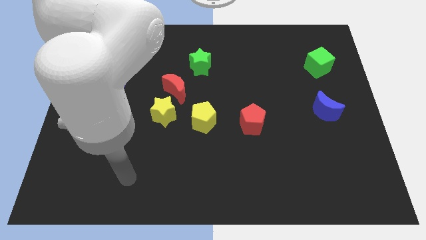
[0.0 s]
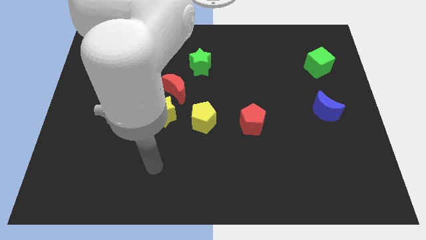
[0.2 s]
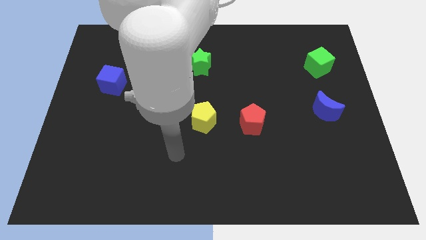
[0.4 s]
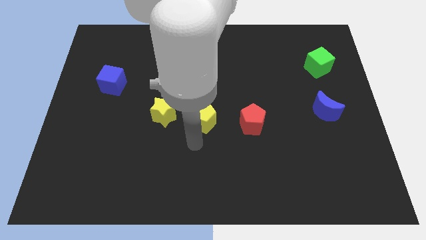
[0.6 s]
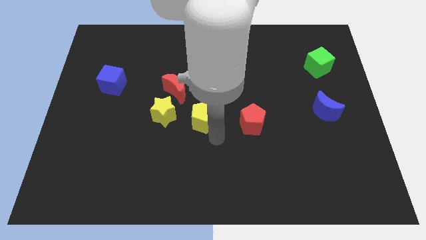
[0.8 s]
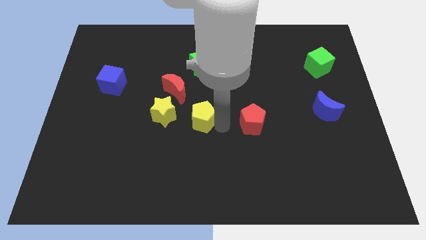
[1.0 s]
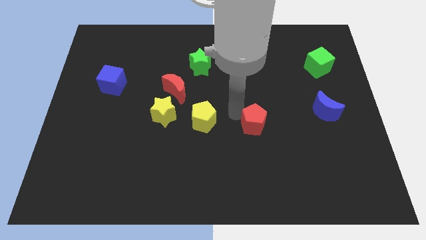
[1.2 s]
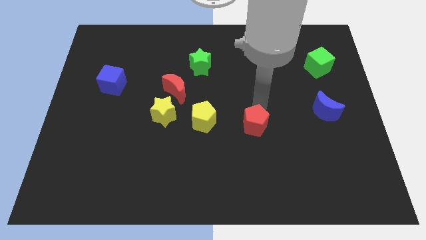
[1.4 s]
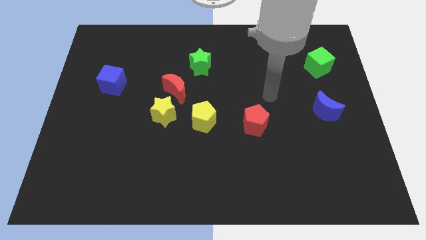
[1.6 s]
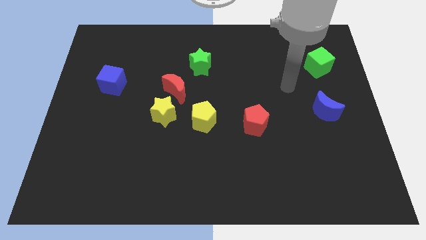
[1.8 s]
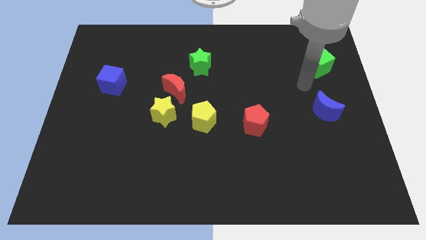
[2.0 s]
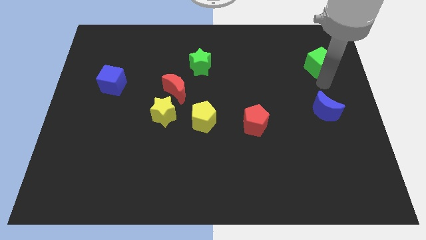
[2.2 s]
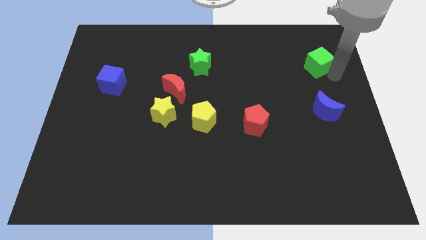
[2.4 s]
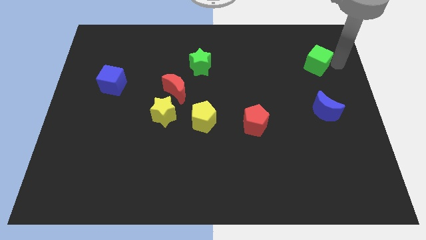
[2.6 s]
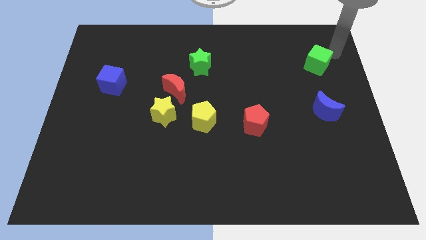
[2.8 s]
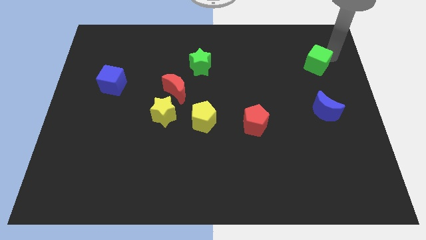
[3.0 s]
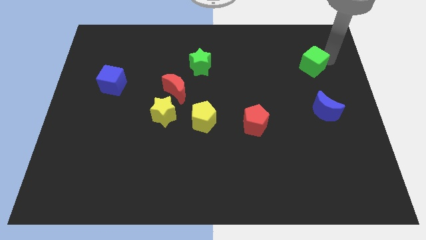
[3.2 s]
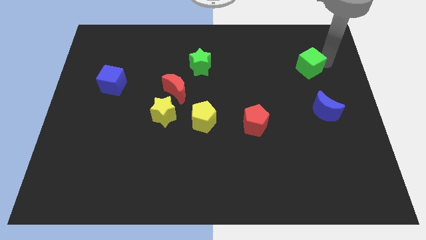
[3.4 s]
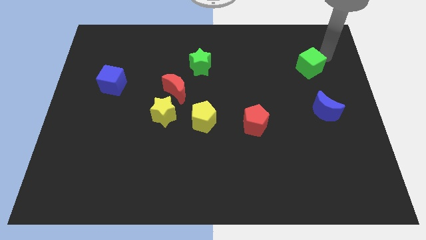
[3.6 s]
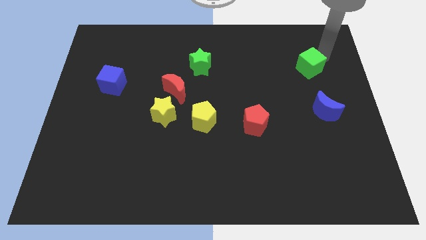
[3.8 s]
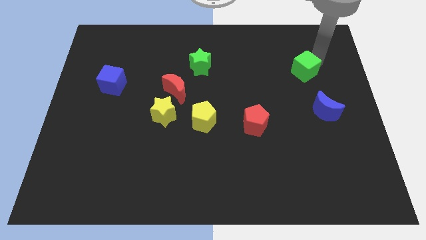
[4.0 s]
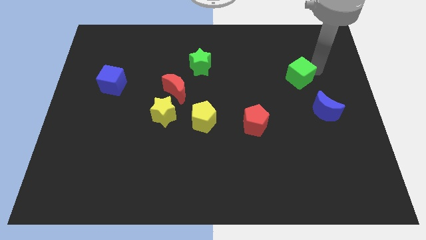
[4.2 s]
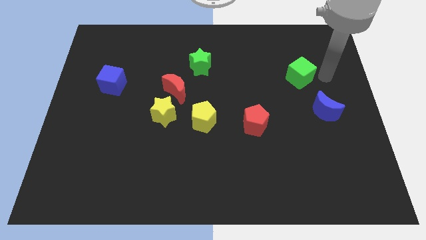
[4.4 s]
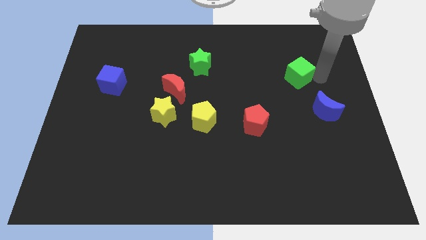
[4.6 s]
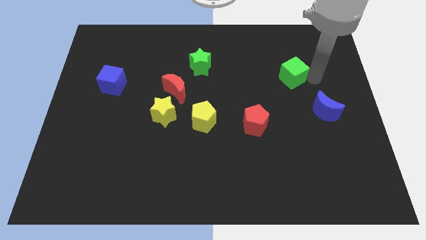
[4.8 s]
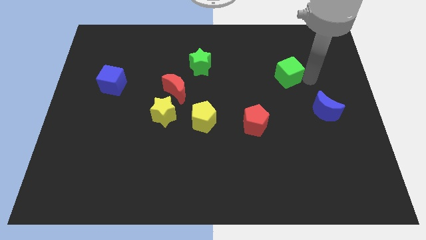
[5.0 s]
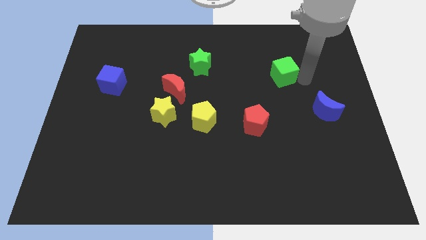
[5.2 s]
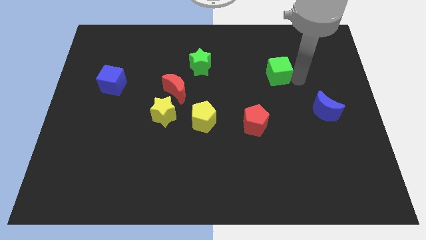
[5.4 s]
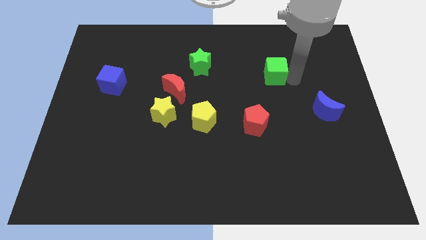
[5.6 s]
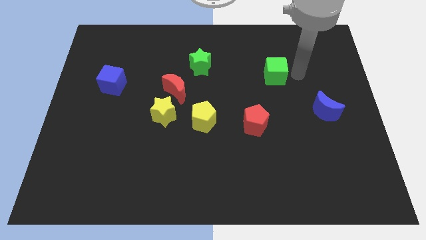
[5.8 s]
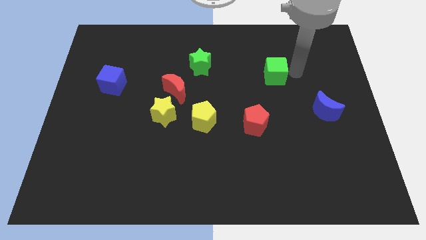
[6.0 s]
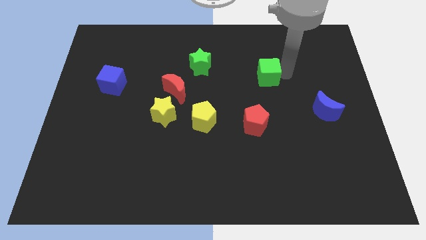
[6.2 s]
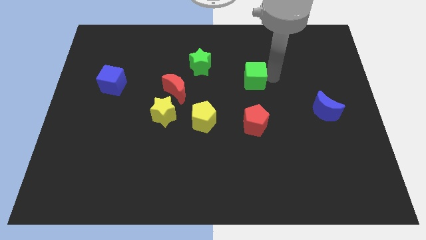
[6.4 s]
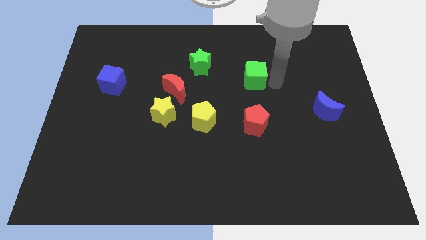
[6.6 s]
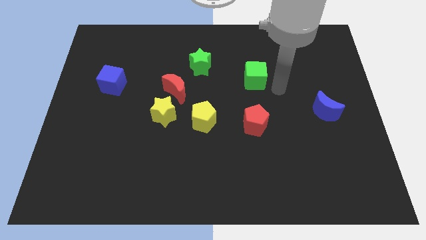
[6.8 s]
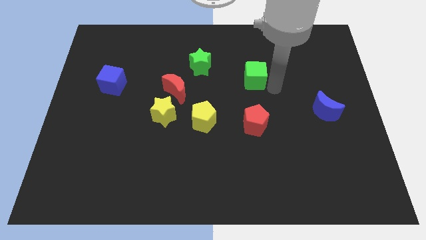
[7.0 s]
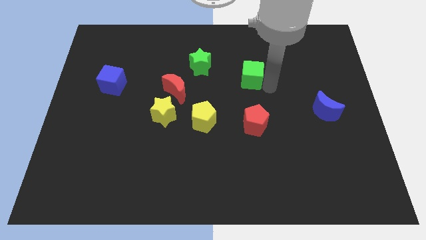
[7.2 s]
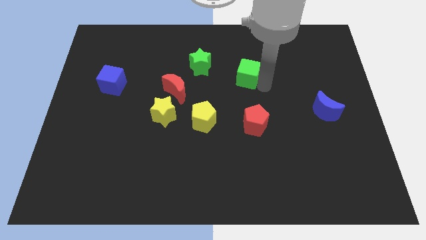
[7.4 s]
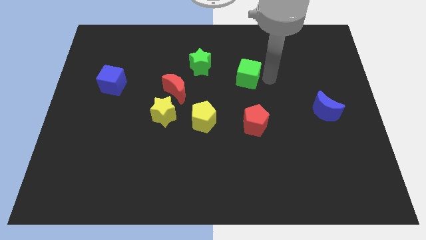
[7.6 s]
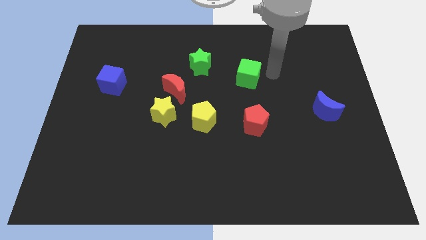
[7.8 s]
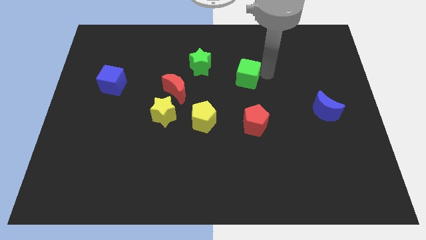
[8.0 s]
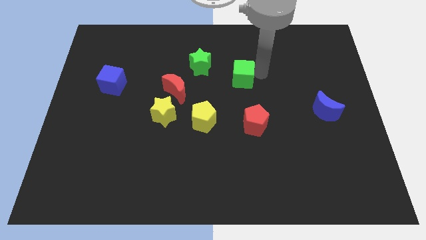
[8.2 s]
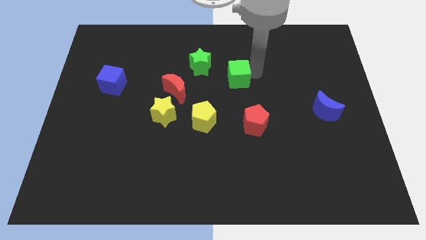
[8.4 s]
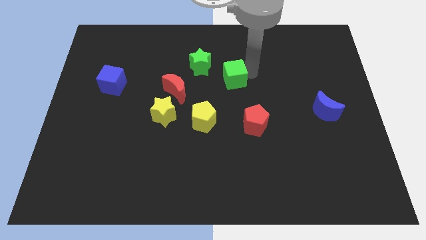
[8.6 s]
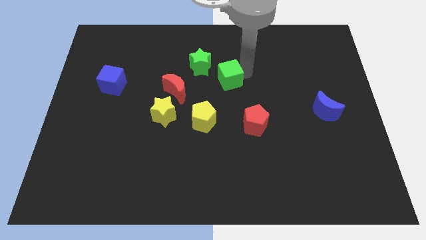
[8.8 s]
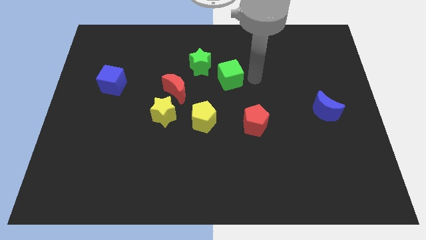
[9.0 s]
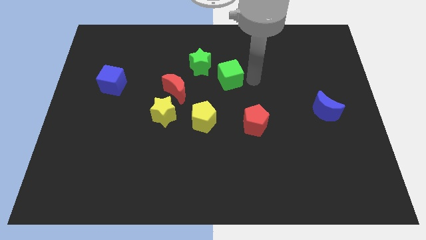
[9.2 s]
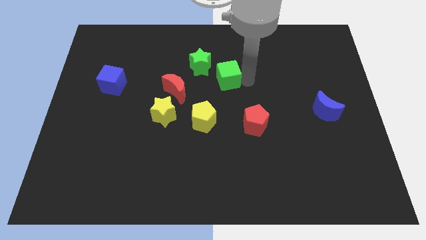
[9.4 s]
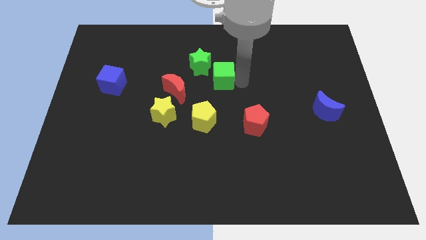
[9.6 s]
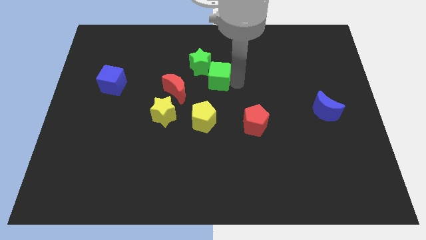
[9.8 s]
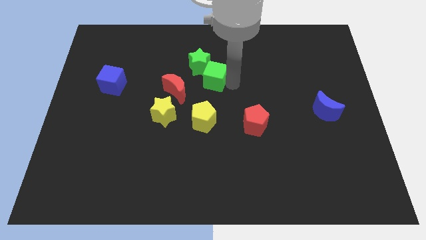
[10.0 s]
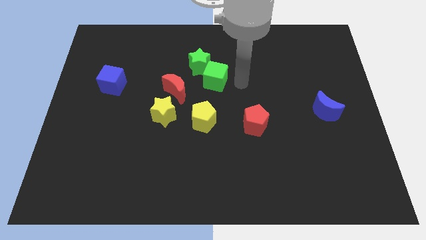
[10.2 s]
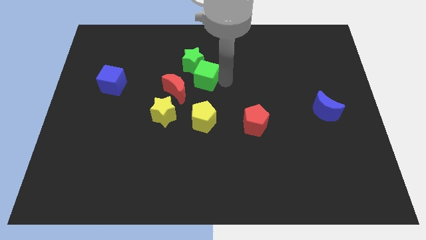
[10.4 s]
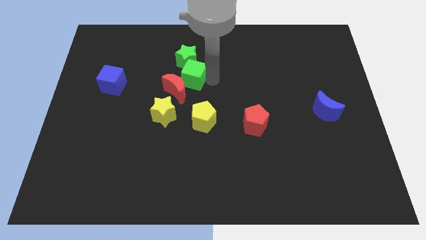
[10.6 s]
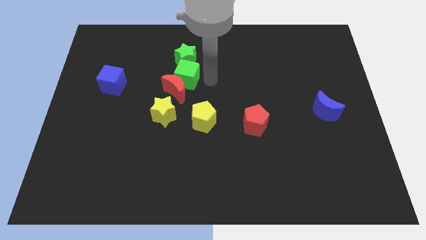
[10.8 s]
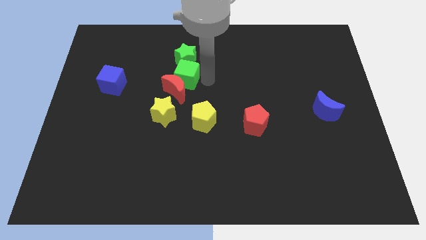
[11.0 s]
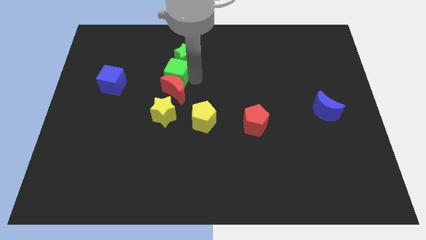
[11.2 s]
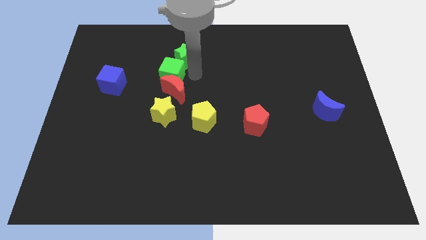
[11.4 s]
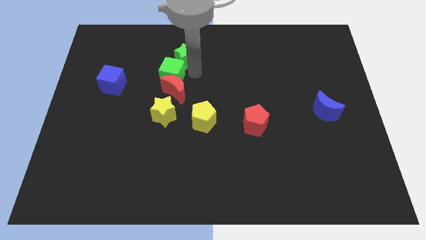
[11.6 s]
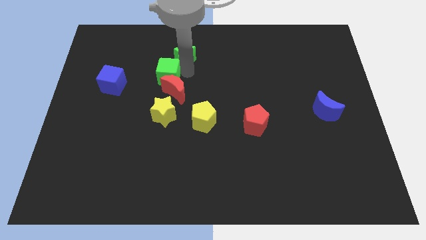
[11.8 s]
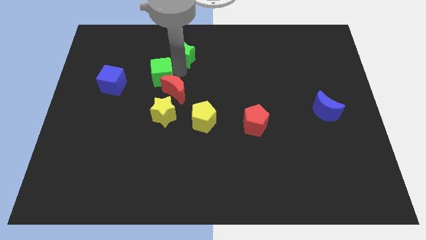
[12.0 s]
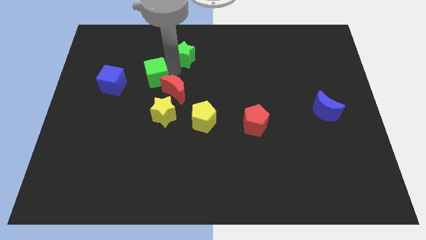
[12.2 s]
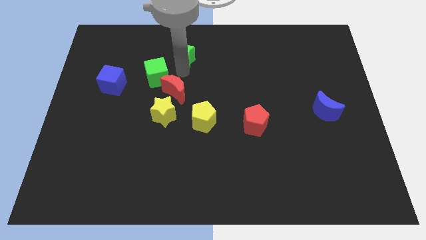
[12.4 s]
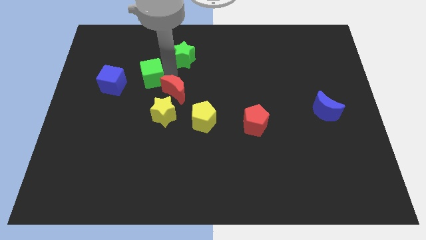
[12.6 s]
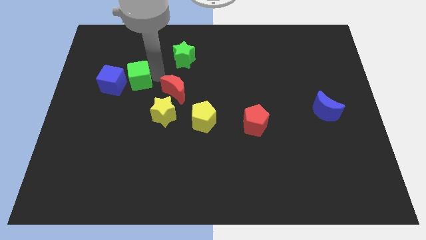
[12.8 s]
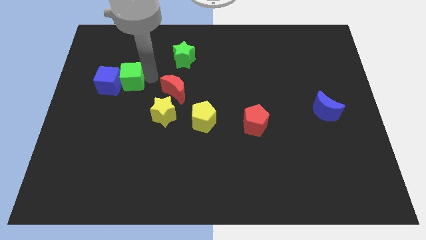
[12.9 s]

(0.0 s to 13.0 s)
push the green cube close to the blue cube

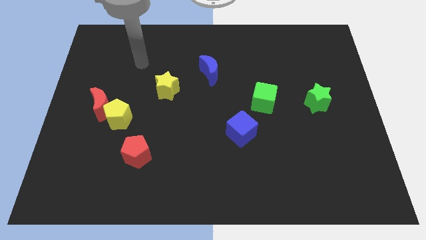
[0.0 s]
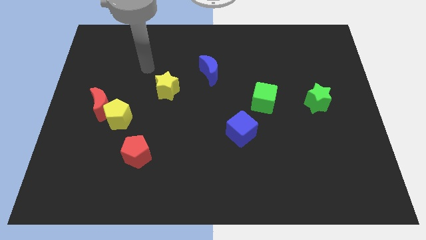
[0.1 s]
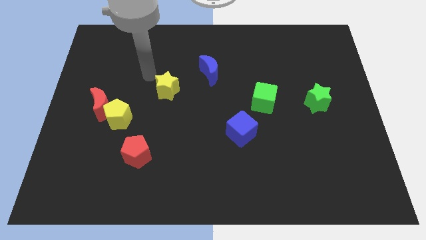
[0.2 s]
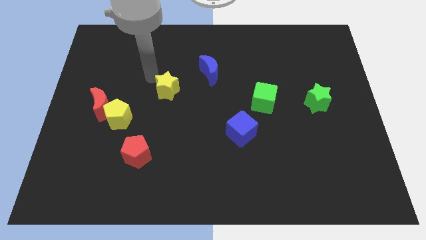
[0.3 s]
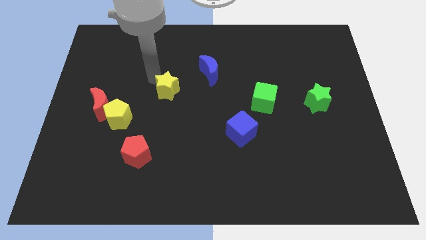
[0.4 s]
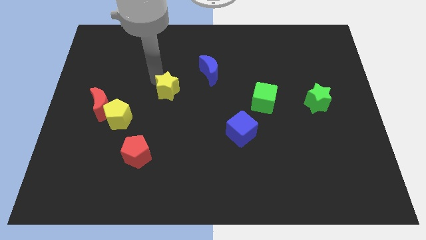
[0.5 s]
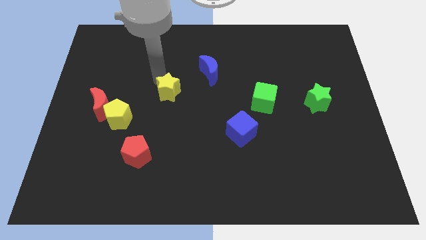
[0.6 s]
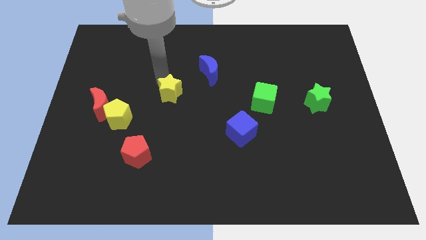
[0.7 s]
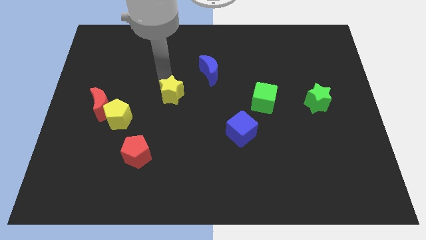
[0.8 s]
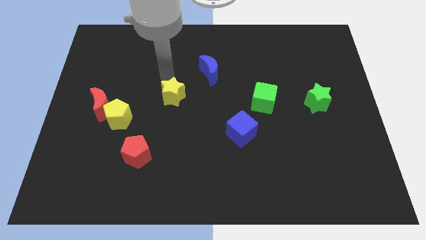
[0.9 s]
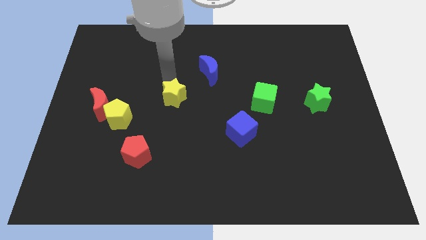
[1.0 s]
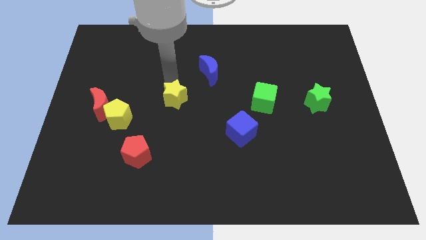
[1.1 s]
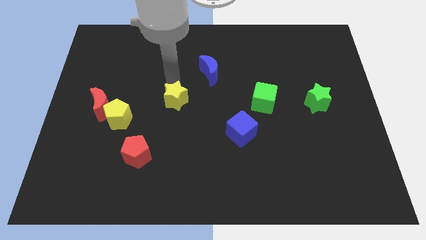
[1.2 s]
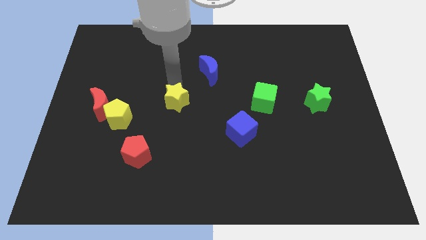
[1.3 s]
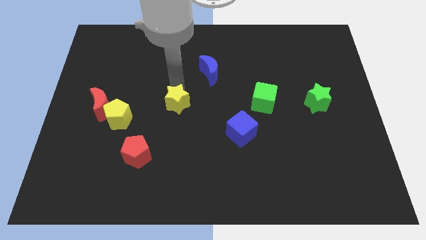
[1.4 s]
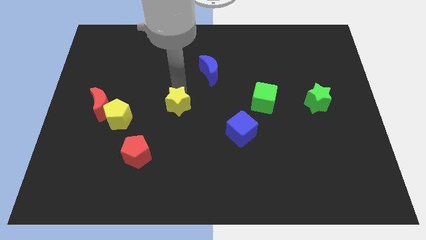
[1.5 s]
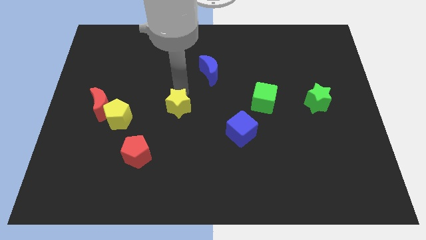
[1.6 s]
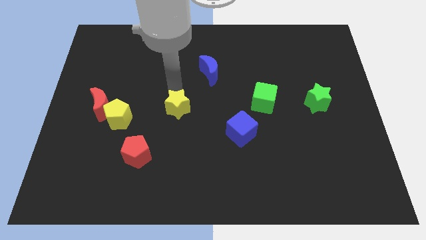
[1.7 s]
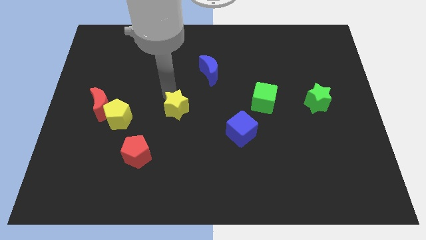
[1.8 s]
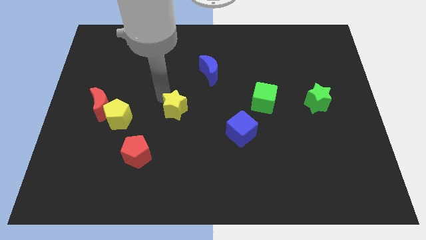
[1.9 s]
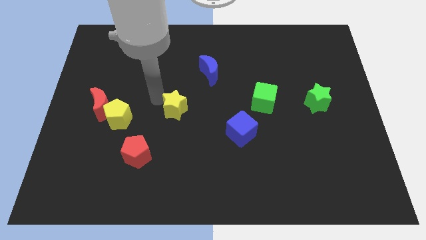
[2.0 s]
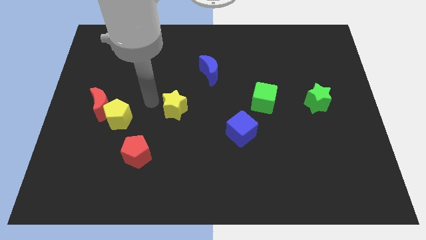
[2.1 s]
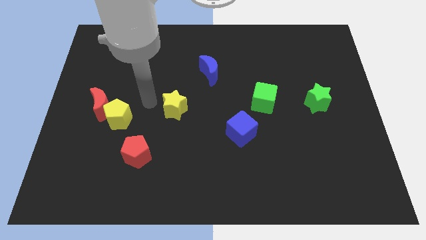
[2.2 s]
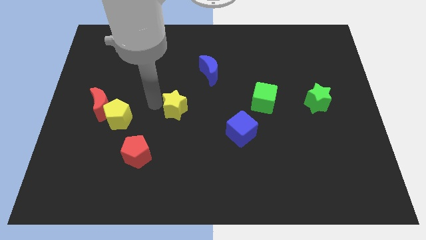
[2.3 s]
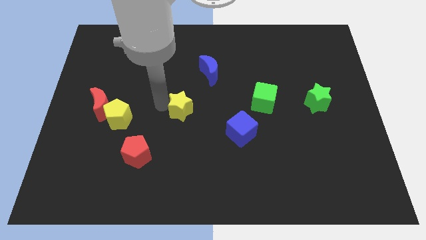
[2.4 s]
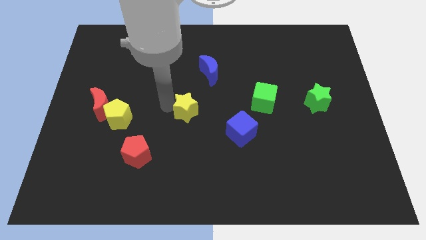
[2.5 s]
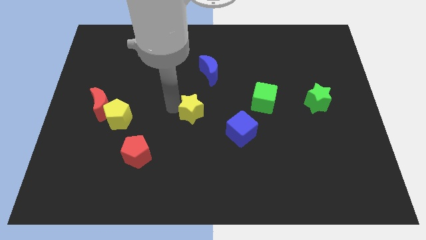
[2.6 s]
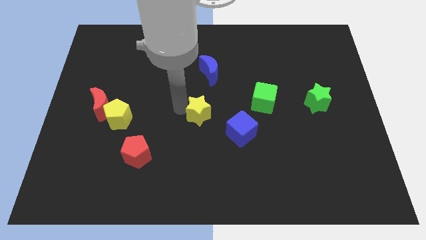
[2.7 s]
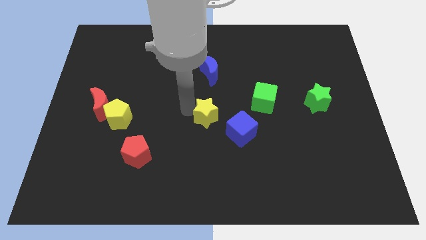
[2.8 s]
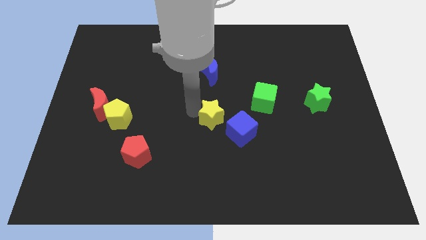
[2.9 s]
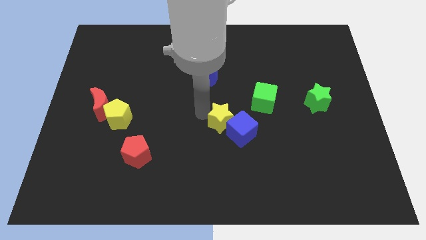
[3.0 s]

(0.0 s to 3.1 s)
put the yellow star close to the blue cube
